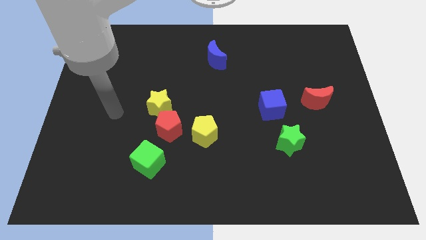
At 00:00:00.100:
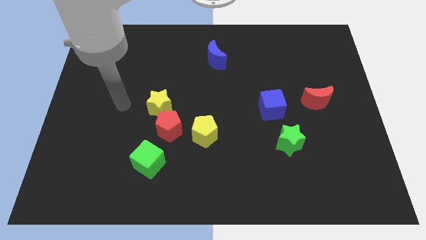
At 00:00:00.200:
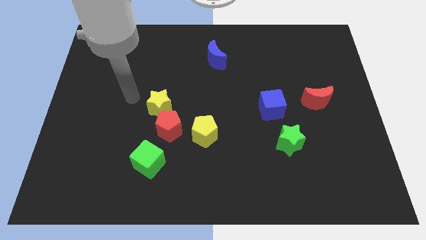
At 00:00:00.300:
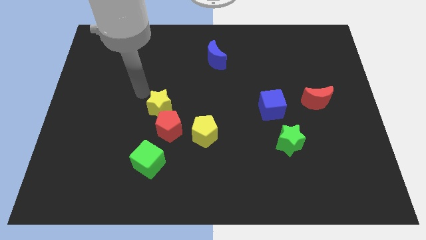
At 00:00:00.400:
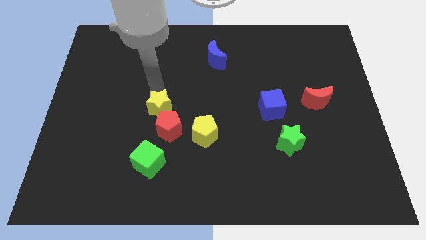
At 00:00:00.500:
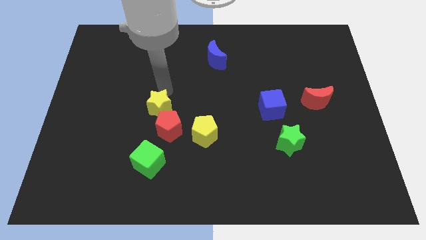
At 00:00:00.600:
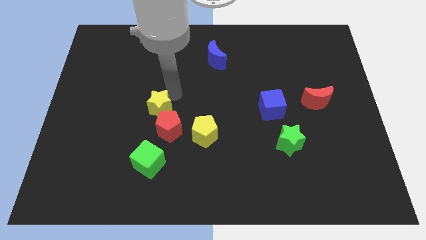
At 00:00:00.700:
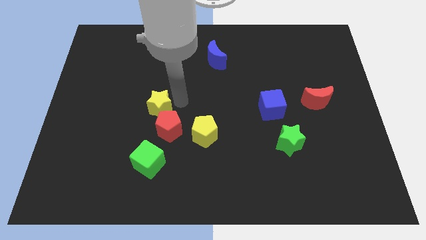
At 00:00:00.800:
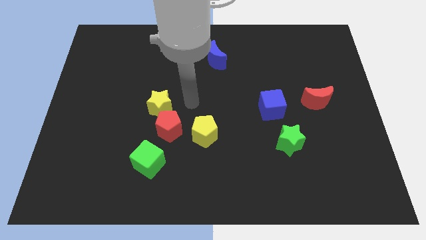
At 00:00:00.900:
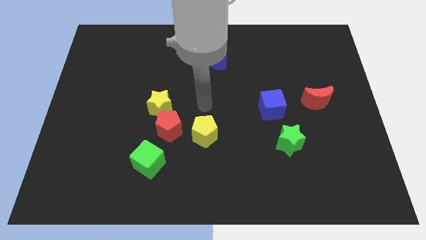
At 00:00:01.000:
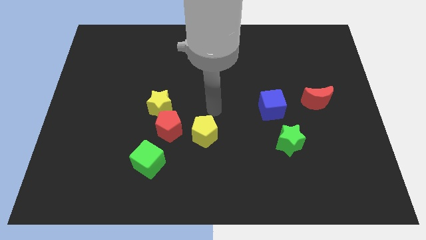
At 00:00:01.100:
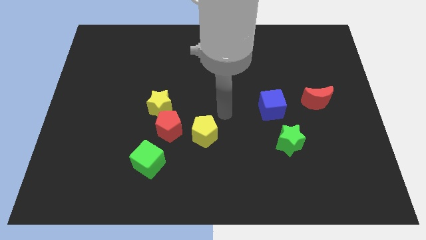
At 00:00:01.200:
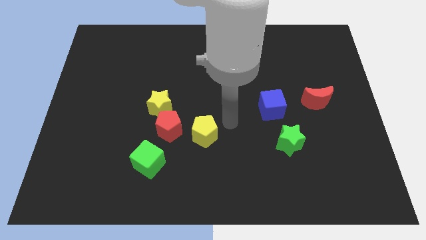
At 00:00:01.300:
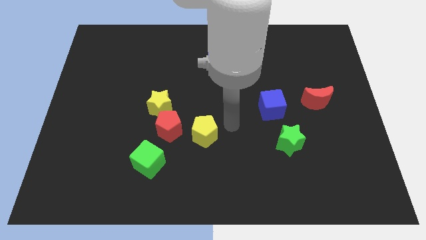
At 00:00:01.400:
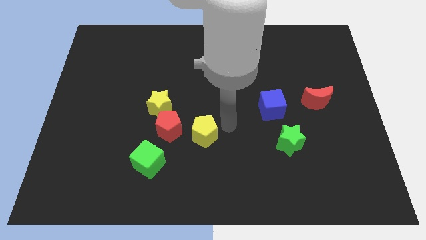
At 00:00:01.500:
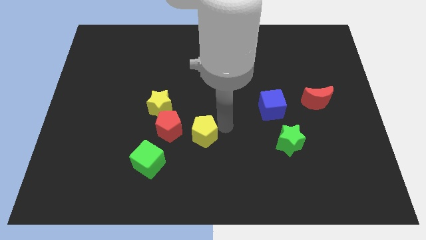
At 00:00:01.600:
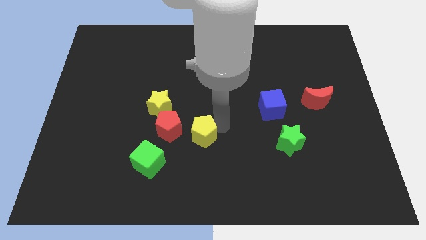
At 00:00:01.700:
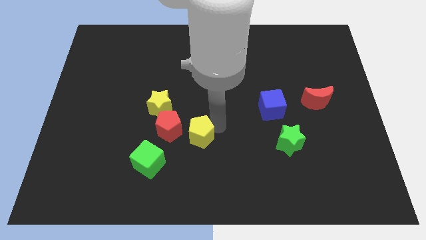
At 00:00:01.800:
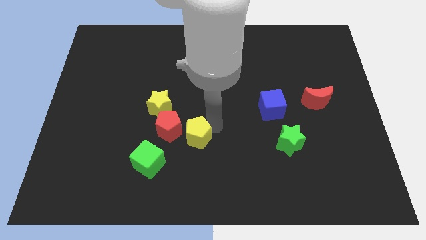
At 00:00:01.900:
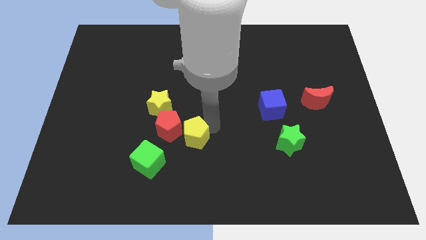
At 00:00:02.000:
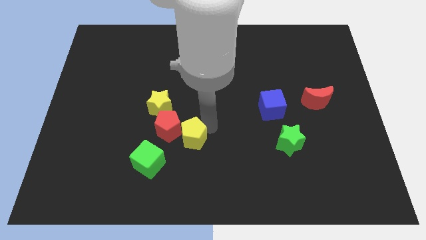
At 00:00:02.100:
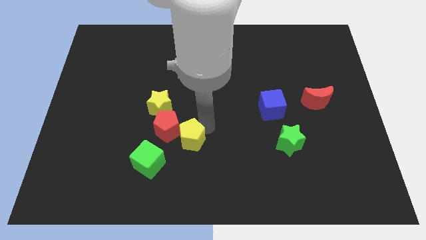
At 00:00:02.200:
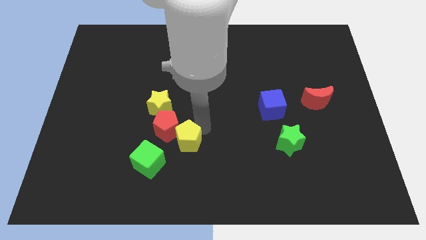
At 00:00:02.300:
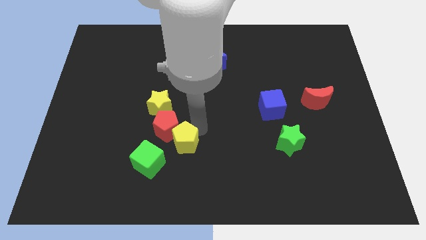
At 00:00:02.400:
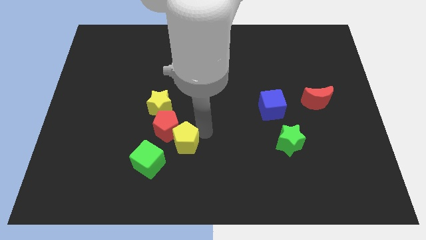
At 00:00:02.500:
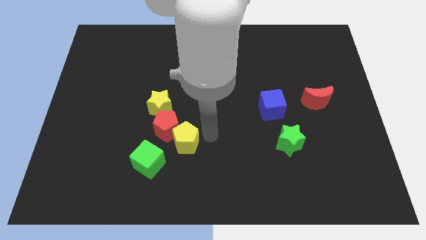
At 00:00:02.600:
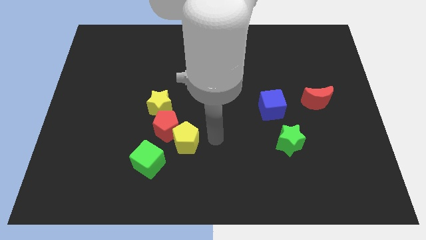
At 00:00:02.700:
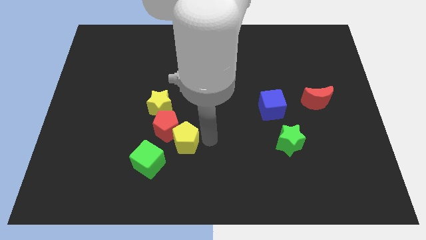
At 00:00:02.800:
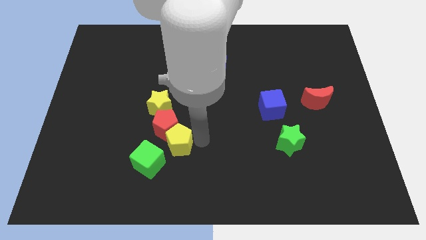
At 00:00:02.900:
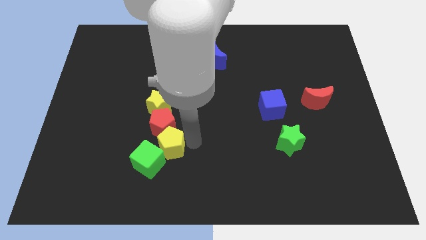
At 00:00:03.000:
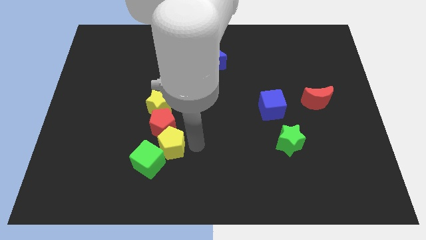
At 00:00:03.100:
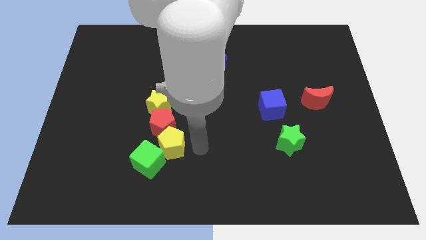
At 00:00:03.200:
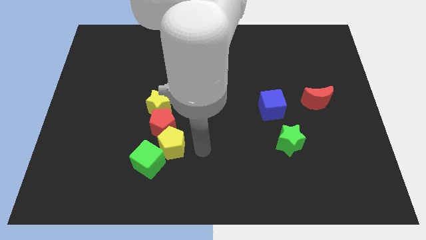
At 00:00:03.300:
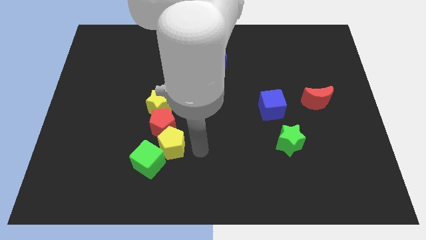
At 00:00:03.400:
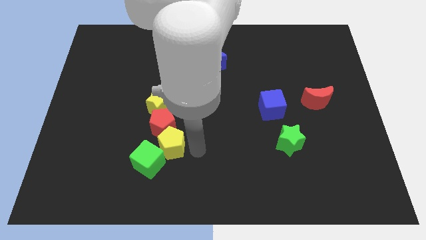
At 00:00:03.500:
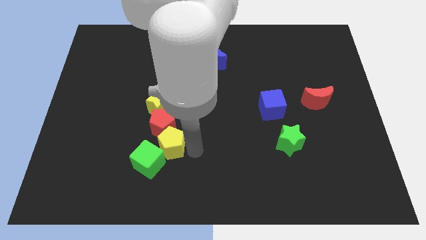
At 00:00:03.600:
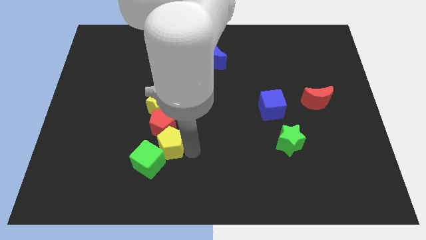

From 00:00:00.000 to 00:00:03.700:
move the yellow pentagon a little bit to the left

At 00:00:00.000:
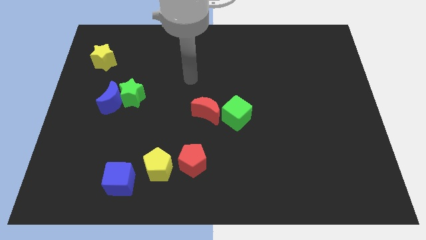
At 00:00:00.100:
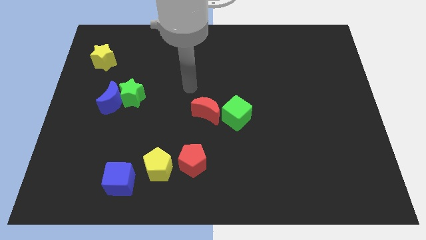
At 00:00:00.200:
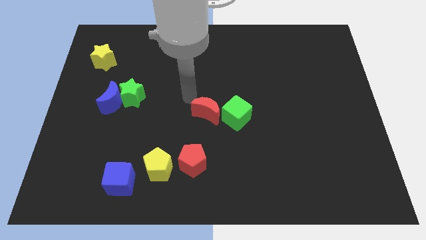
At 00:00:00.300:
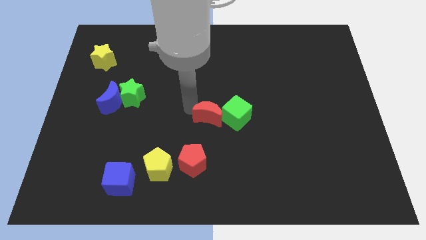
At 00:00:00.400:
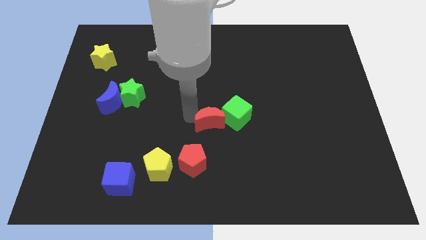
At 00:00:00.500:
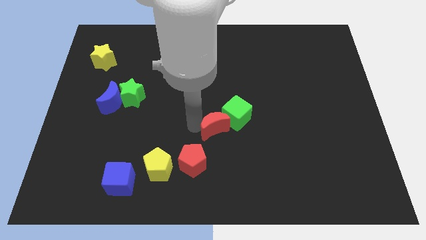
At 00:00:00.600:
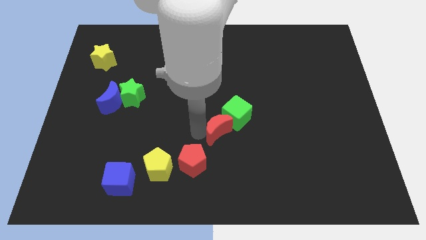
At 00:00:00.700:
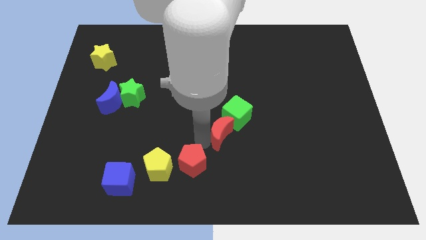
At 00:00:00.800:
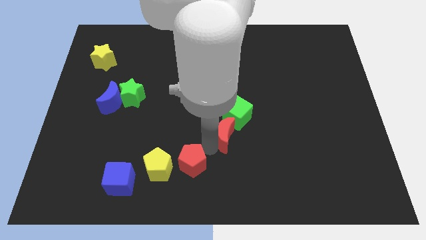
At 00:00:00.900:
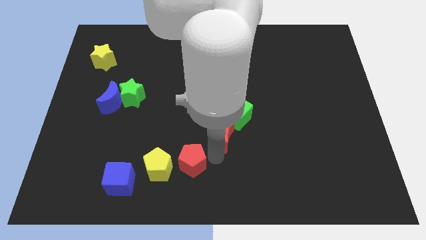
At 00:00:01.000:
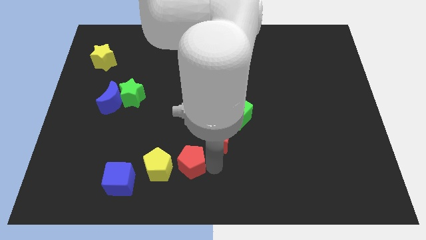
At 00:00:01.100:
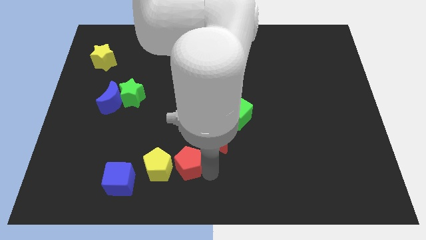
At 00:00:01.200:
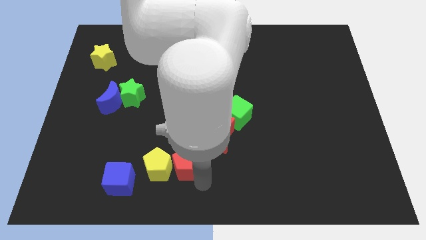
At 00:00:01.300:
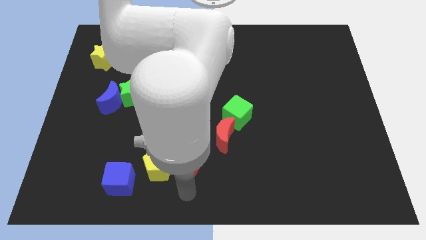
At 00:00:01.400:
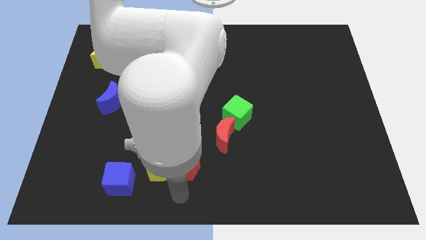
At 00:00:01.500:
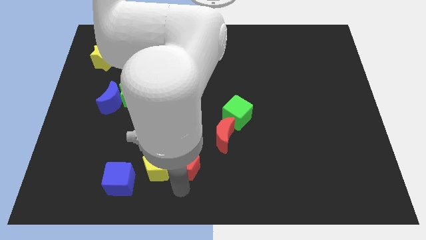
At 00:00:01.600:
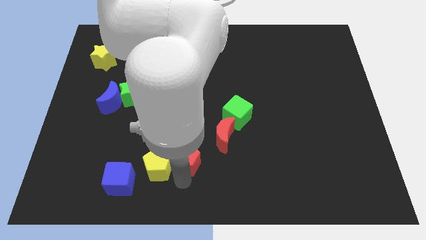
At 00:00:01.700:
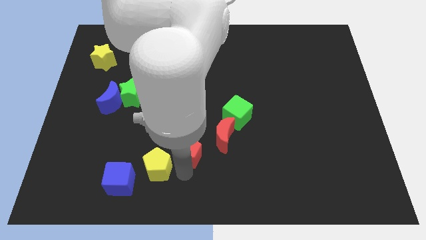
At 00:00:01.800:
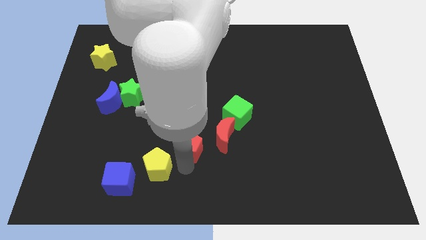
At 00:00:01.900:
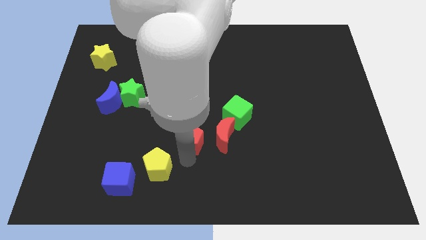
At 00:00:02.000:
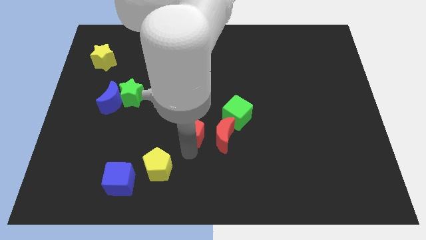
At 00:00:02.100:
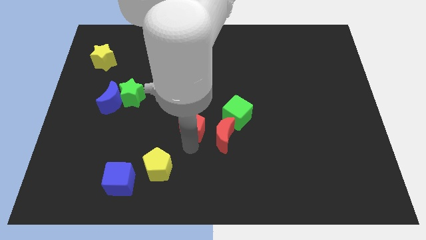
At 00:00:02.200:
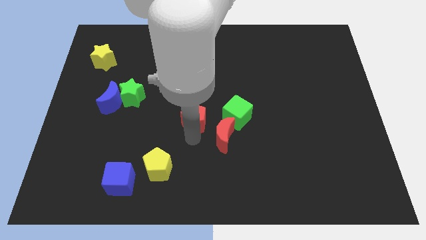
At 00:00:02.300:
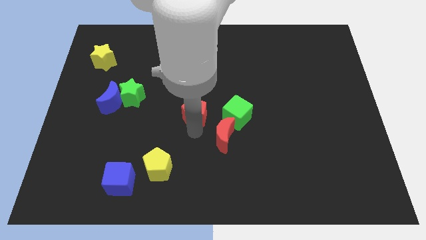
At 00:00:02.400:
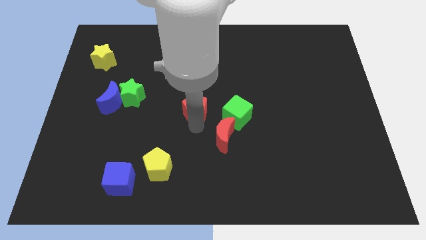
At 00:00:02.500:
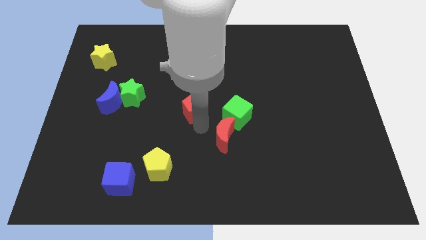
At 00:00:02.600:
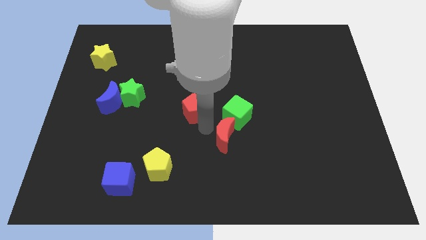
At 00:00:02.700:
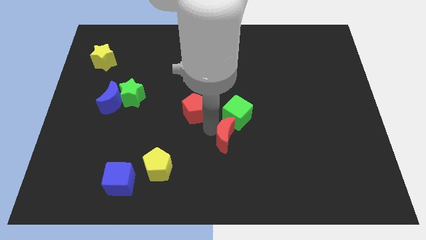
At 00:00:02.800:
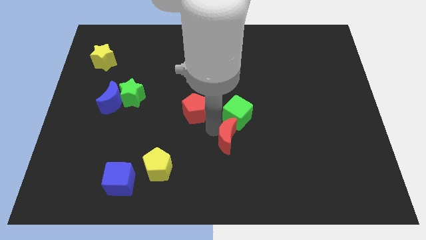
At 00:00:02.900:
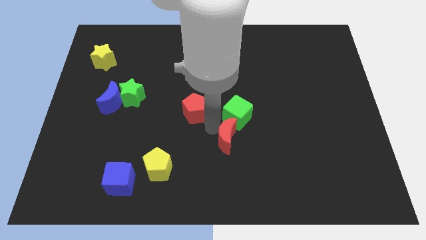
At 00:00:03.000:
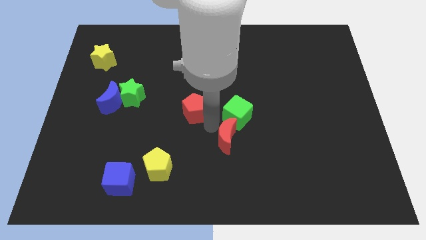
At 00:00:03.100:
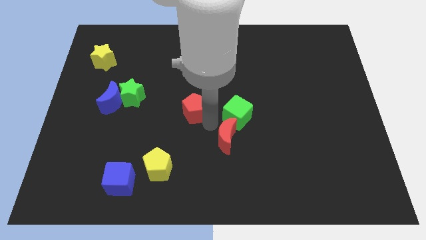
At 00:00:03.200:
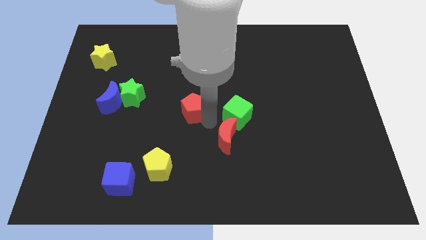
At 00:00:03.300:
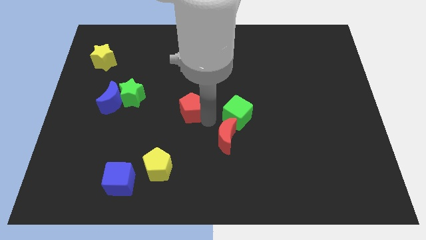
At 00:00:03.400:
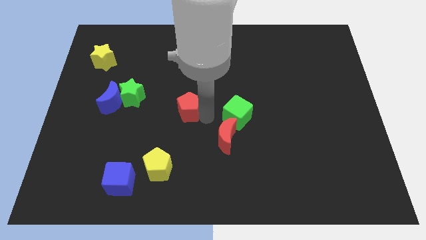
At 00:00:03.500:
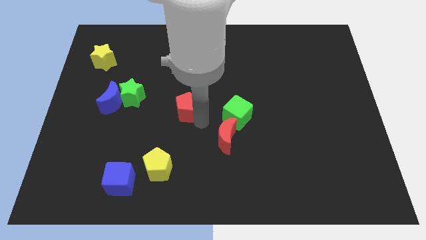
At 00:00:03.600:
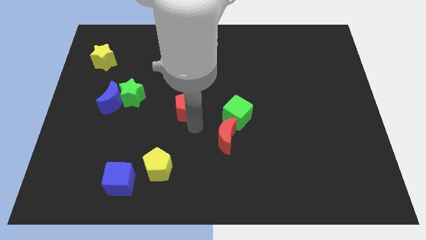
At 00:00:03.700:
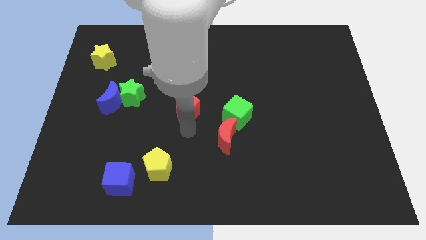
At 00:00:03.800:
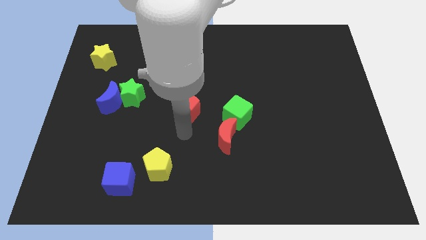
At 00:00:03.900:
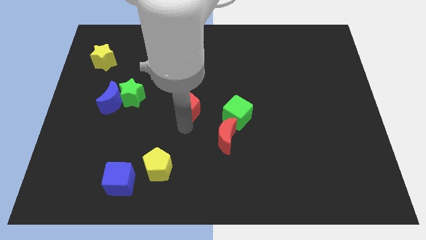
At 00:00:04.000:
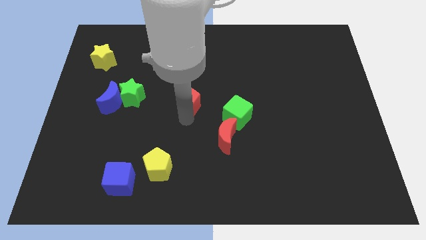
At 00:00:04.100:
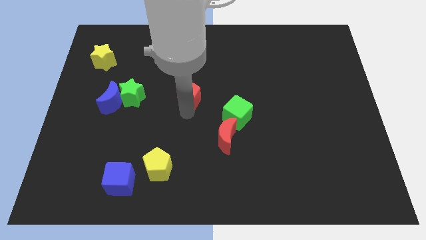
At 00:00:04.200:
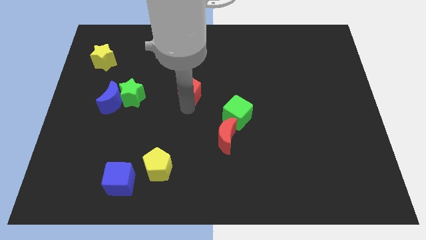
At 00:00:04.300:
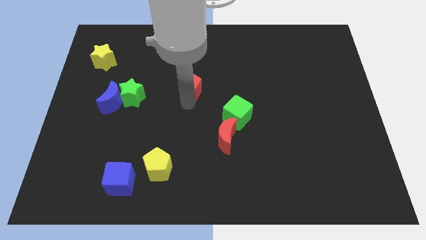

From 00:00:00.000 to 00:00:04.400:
slide the red pentagon up
